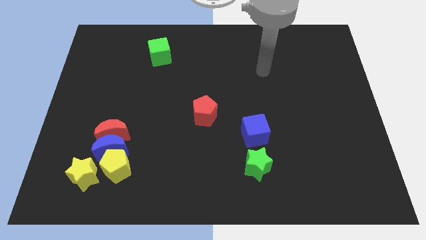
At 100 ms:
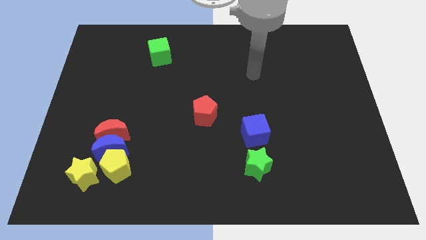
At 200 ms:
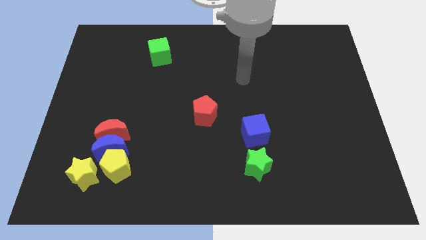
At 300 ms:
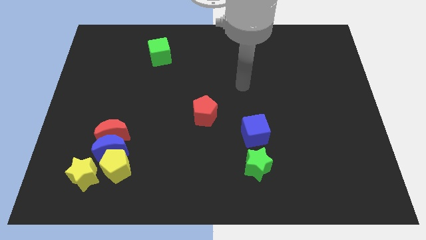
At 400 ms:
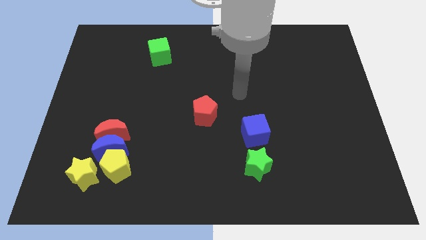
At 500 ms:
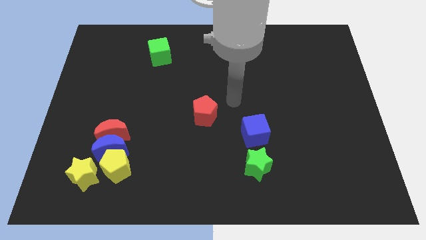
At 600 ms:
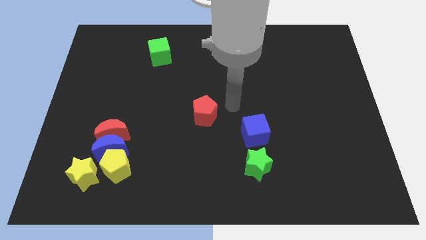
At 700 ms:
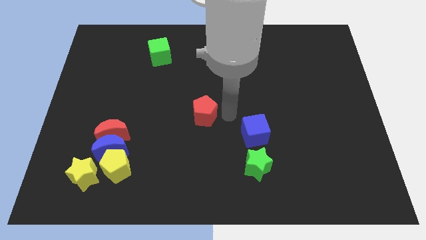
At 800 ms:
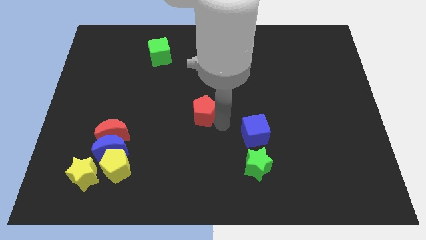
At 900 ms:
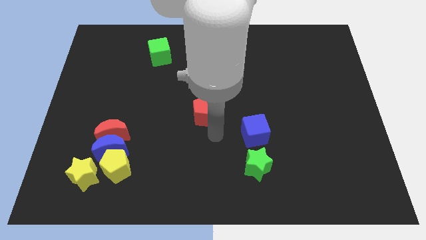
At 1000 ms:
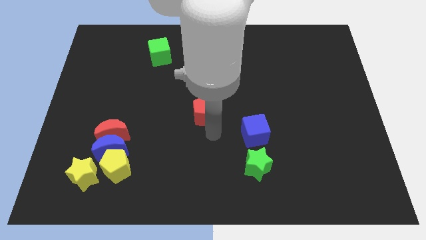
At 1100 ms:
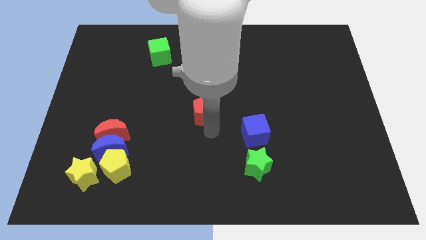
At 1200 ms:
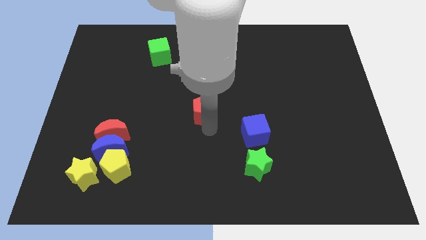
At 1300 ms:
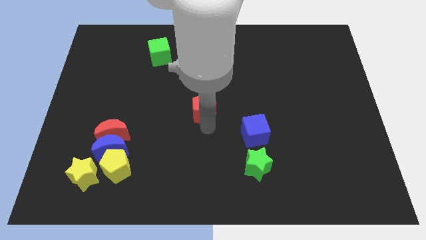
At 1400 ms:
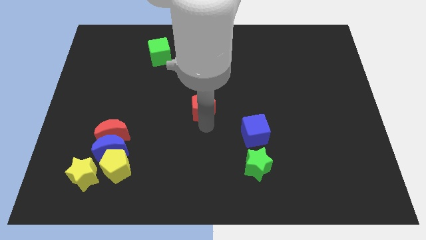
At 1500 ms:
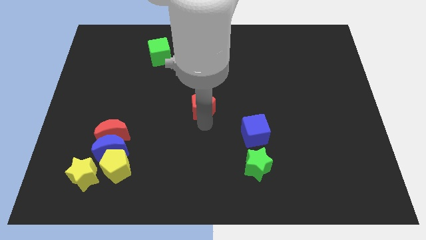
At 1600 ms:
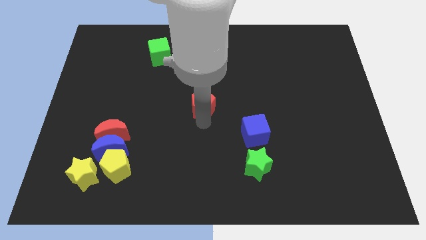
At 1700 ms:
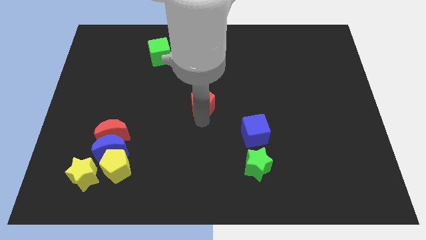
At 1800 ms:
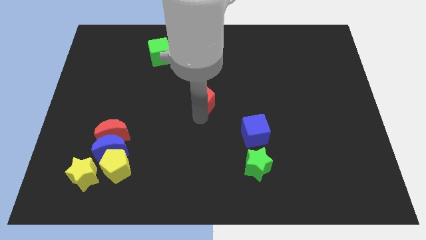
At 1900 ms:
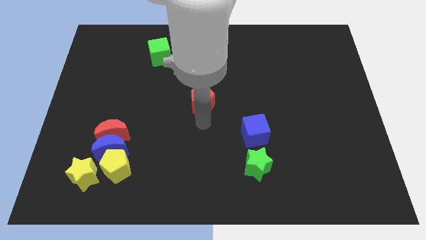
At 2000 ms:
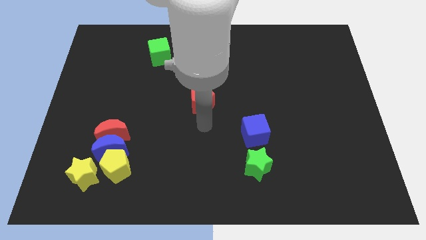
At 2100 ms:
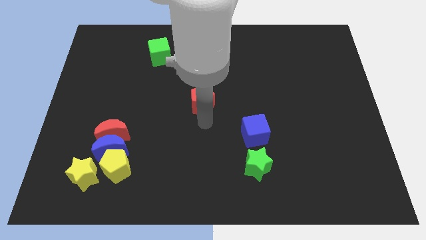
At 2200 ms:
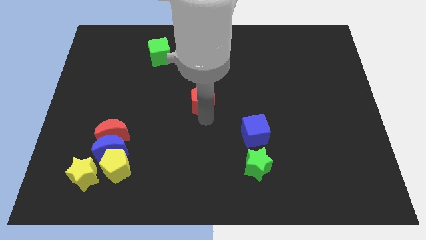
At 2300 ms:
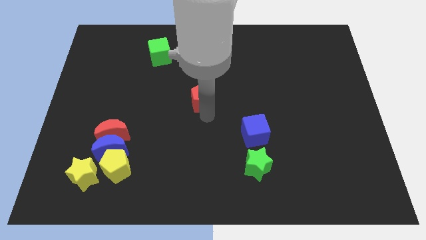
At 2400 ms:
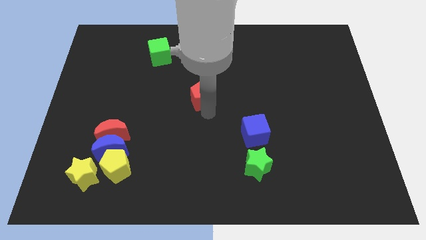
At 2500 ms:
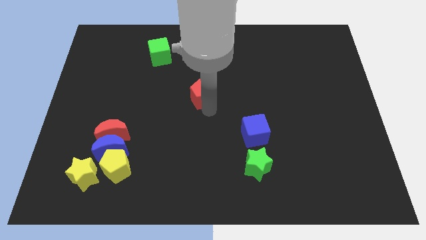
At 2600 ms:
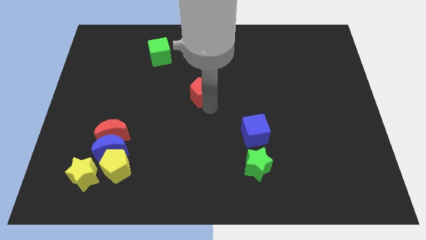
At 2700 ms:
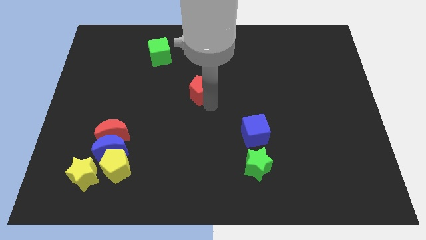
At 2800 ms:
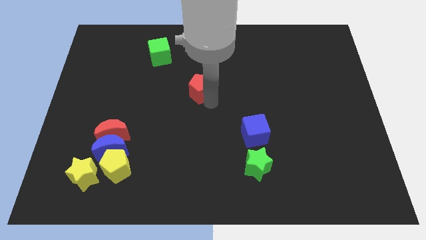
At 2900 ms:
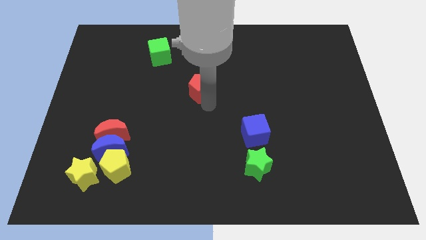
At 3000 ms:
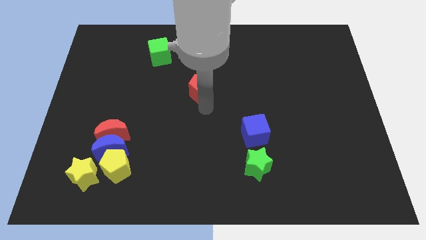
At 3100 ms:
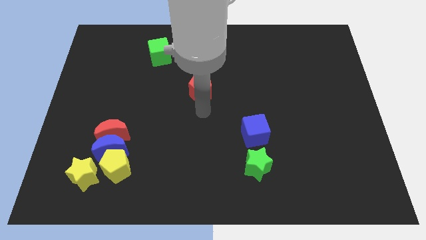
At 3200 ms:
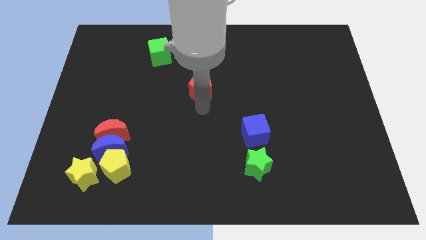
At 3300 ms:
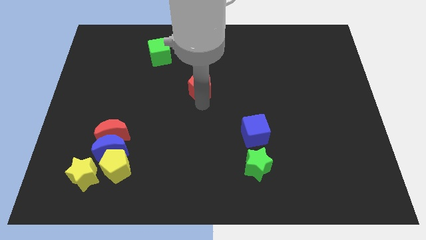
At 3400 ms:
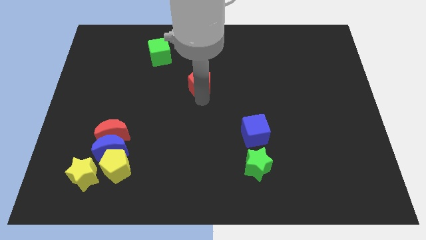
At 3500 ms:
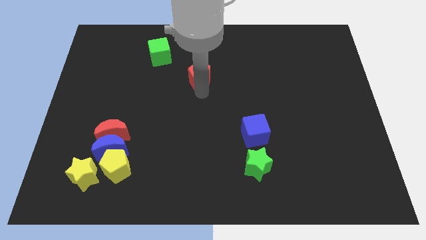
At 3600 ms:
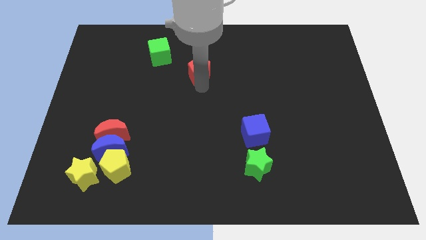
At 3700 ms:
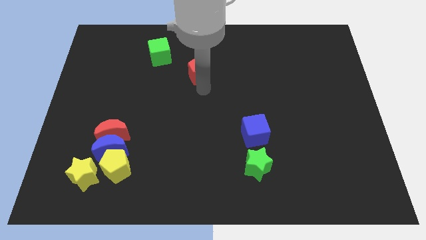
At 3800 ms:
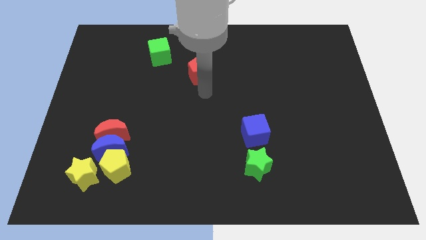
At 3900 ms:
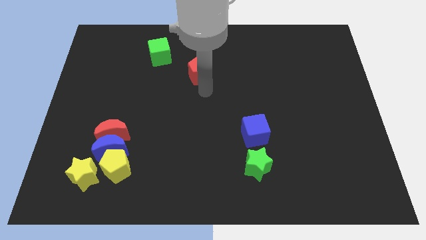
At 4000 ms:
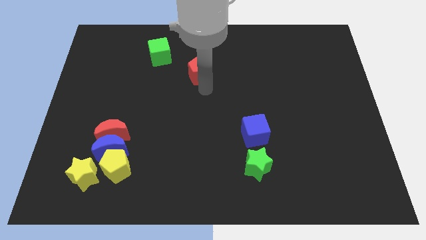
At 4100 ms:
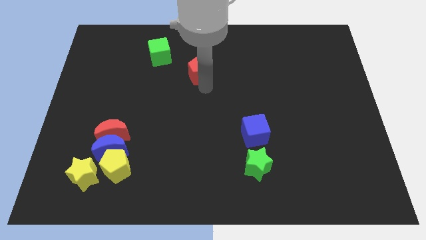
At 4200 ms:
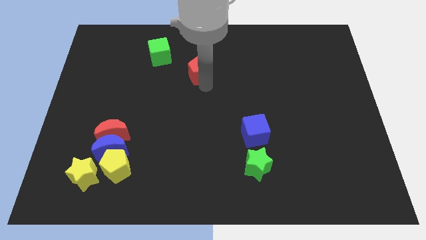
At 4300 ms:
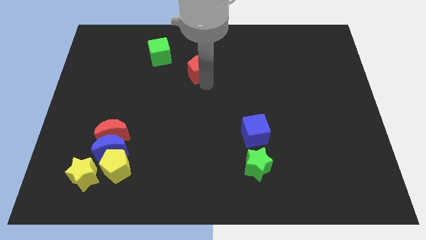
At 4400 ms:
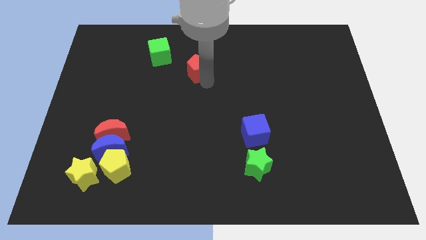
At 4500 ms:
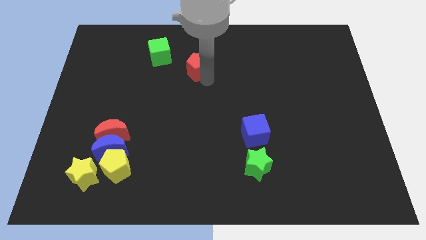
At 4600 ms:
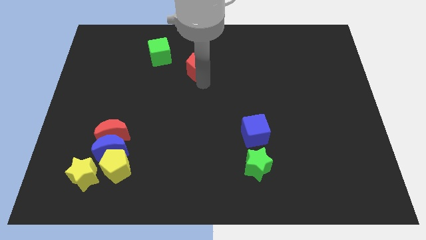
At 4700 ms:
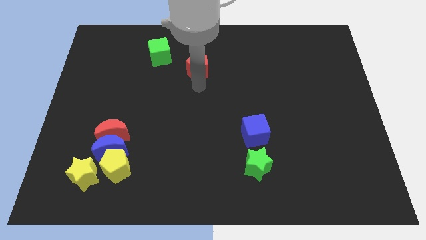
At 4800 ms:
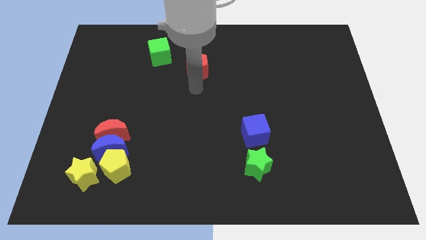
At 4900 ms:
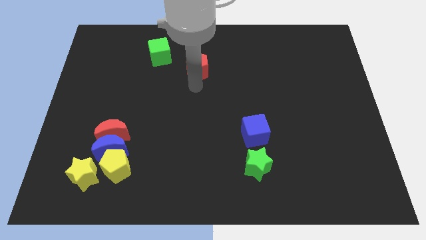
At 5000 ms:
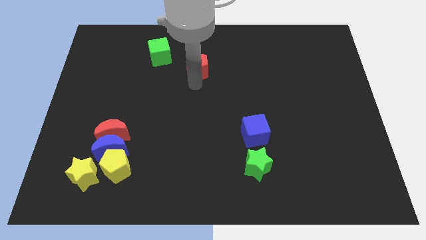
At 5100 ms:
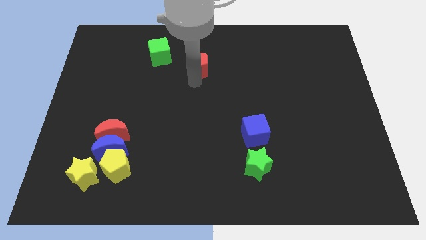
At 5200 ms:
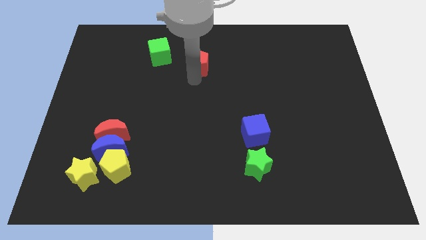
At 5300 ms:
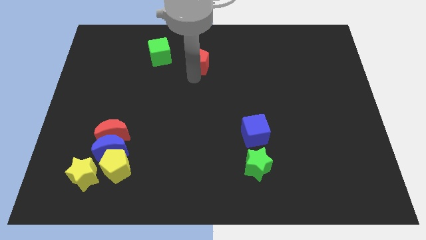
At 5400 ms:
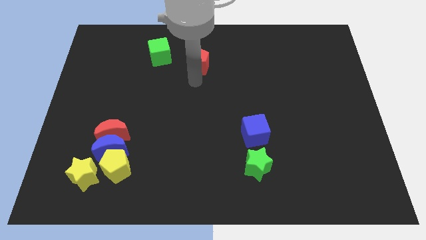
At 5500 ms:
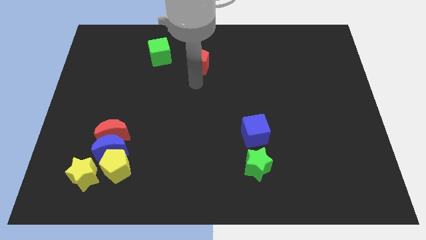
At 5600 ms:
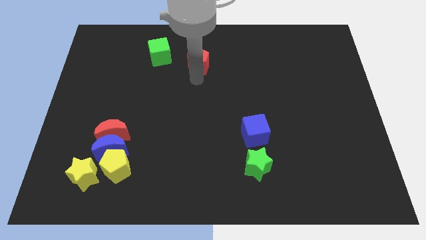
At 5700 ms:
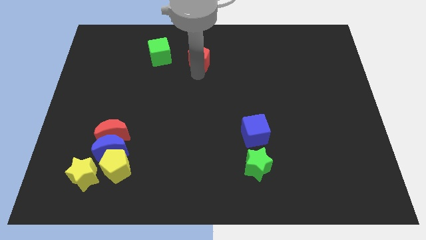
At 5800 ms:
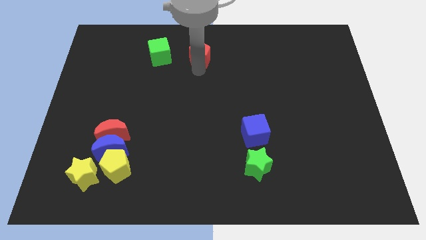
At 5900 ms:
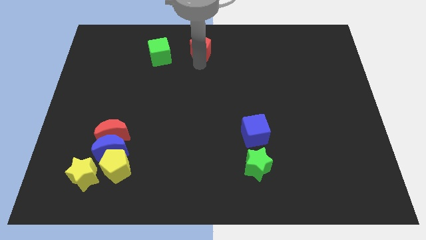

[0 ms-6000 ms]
push the red pentagon to the top side

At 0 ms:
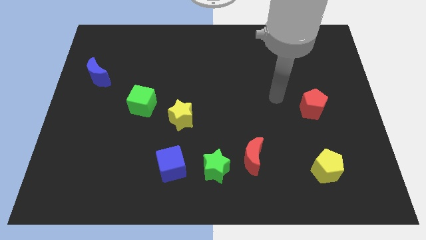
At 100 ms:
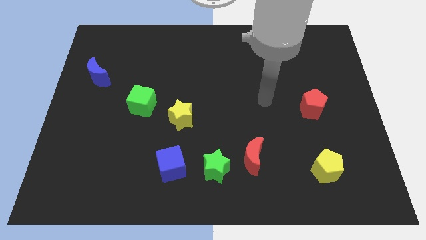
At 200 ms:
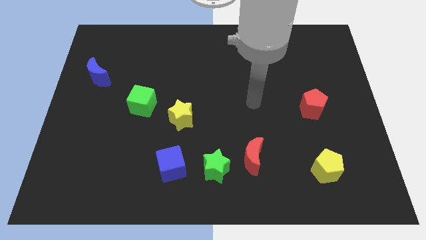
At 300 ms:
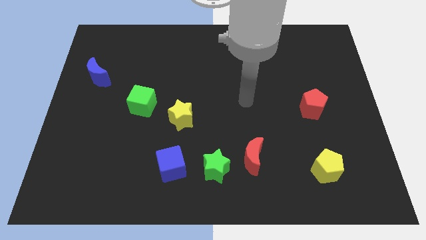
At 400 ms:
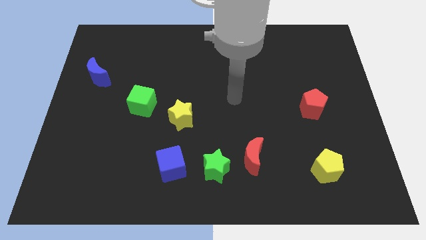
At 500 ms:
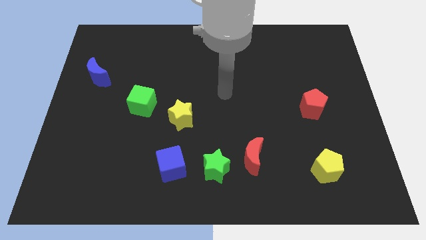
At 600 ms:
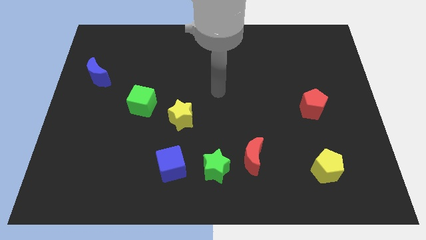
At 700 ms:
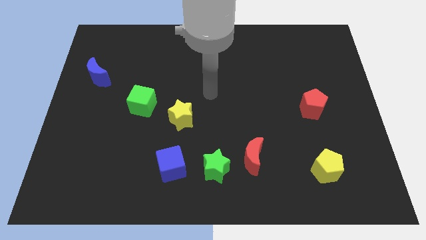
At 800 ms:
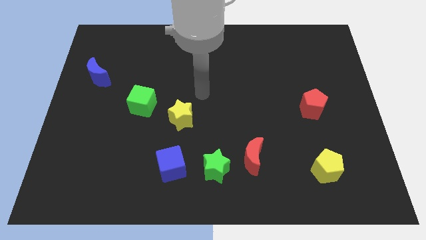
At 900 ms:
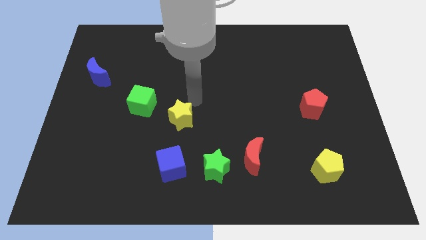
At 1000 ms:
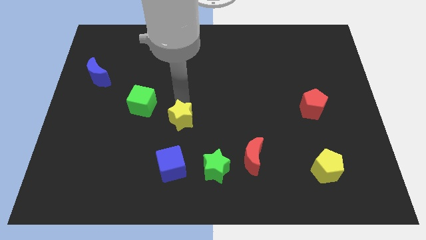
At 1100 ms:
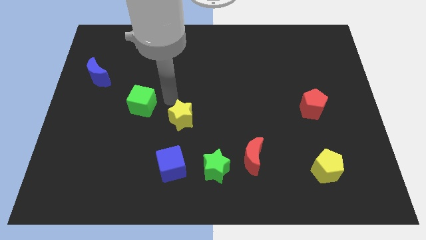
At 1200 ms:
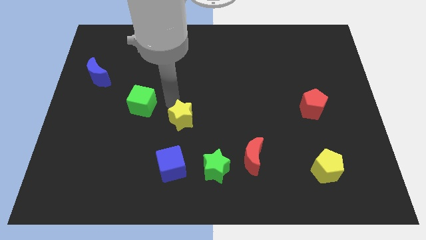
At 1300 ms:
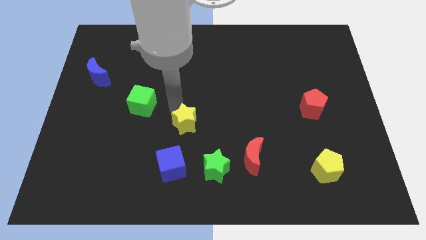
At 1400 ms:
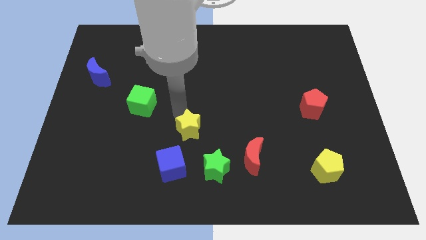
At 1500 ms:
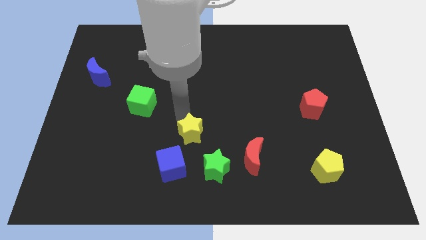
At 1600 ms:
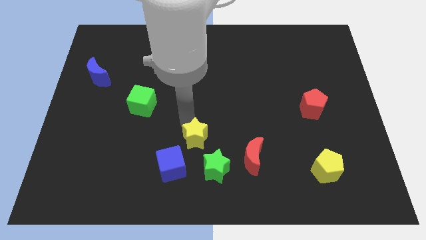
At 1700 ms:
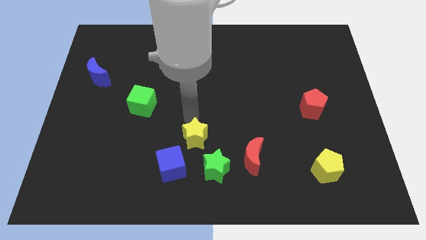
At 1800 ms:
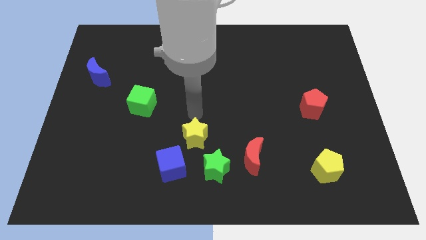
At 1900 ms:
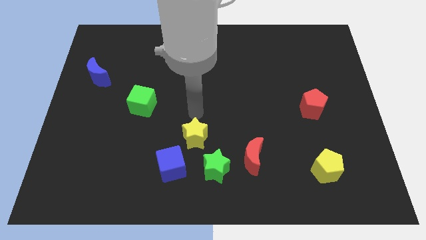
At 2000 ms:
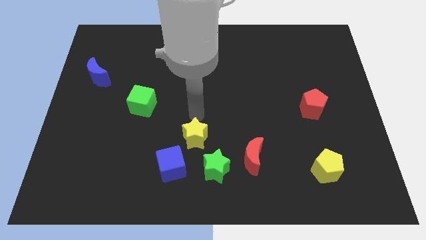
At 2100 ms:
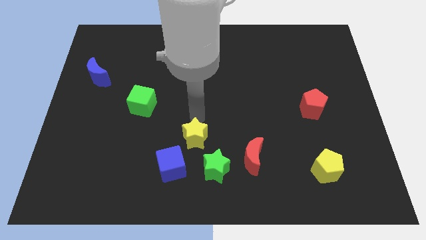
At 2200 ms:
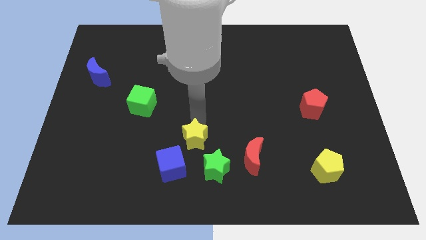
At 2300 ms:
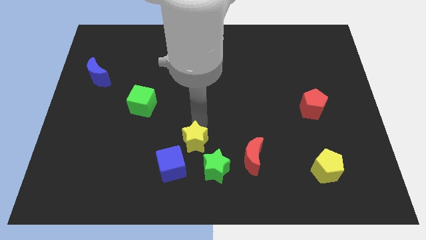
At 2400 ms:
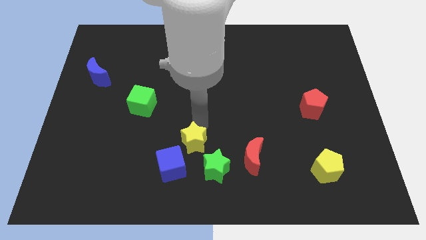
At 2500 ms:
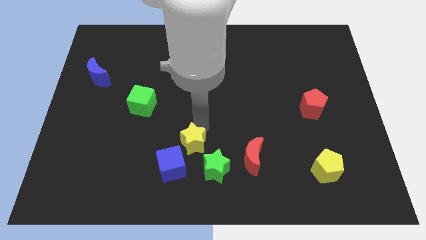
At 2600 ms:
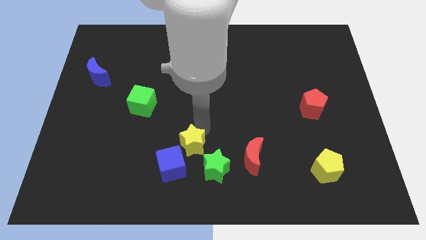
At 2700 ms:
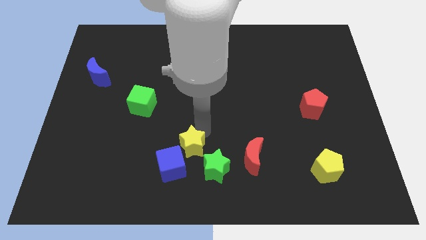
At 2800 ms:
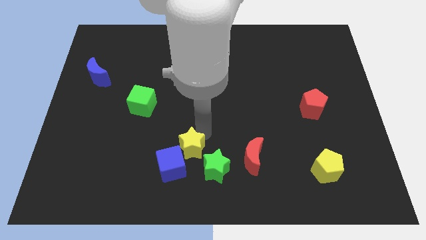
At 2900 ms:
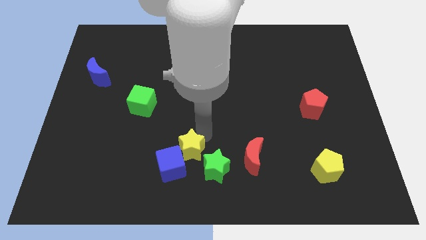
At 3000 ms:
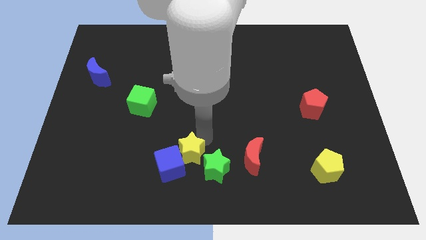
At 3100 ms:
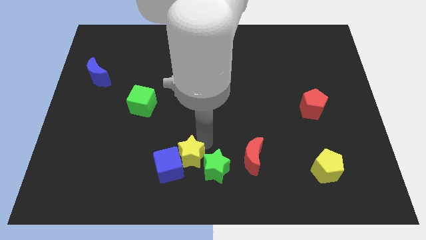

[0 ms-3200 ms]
push the yellow star to the bottom
